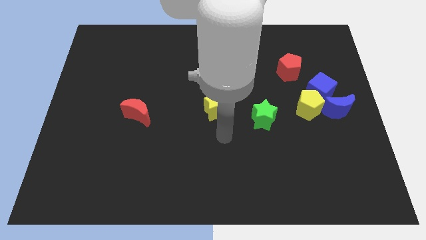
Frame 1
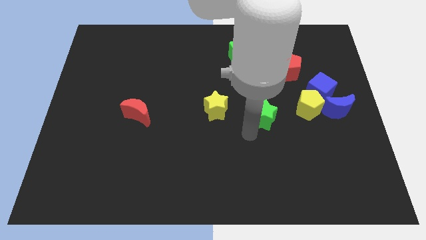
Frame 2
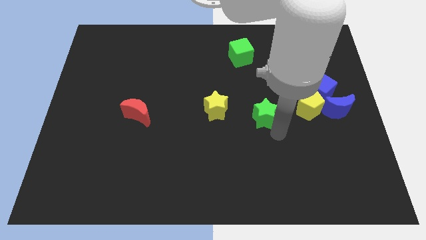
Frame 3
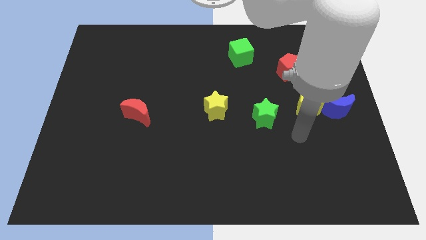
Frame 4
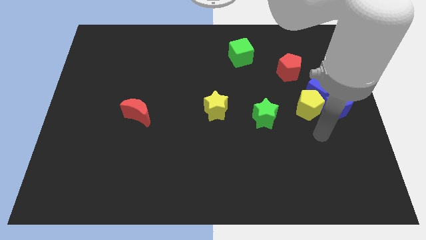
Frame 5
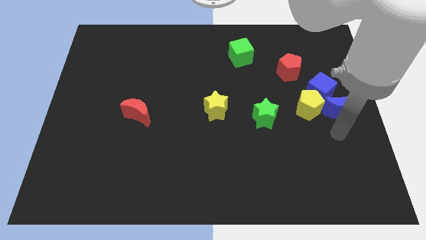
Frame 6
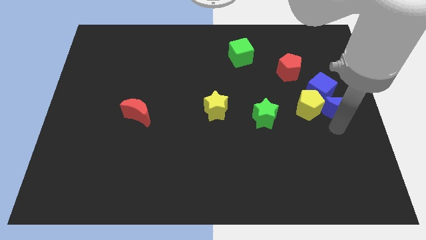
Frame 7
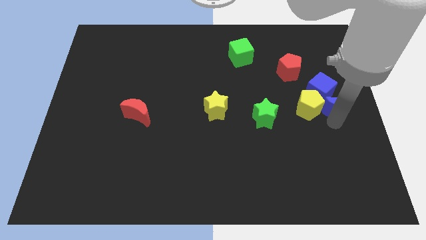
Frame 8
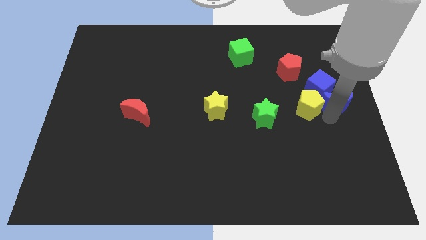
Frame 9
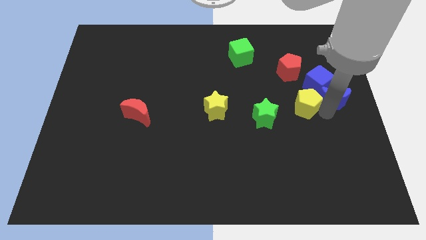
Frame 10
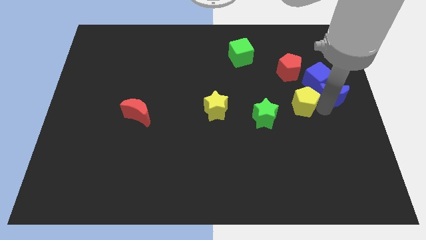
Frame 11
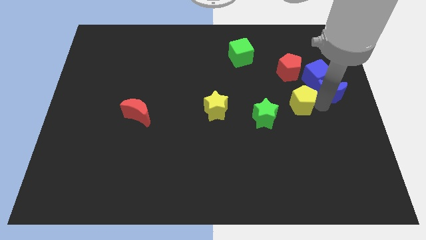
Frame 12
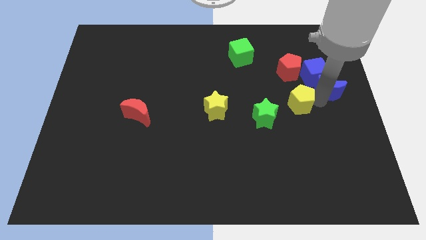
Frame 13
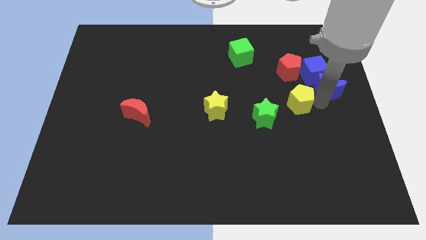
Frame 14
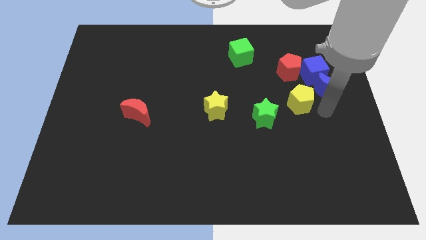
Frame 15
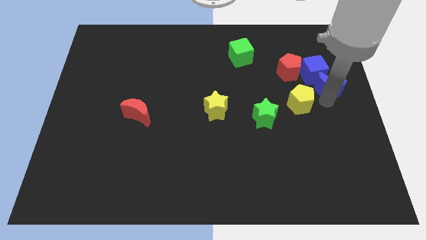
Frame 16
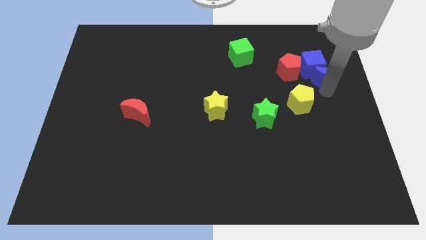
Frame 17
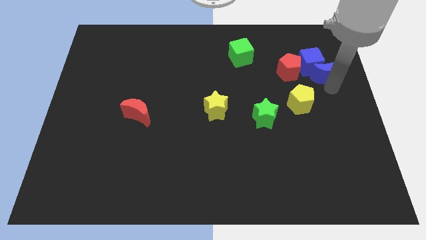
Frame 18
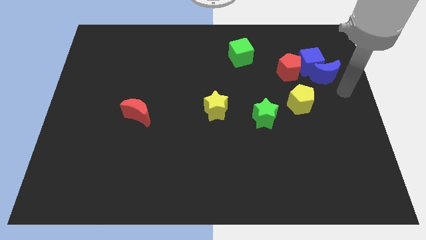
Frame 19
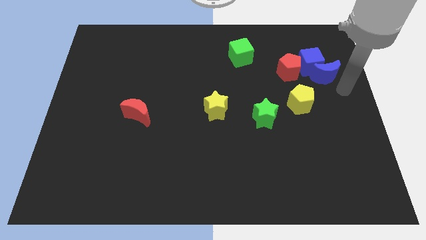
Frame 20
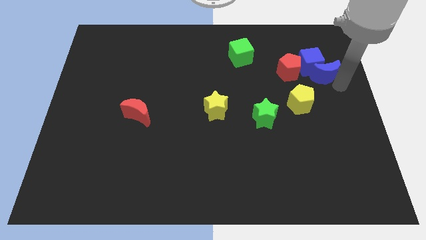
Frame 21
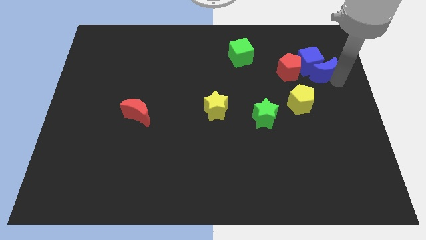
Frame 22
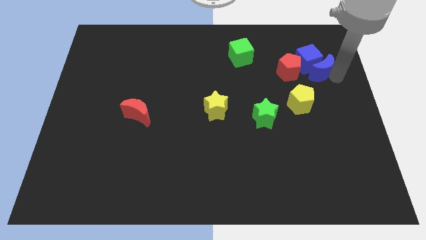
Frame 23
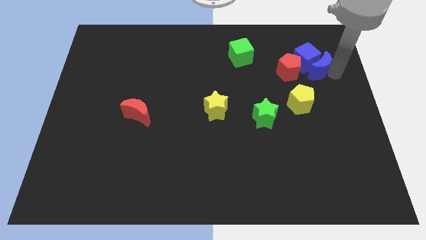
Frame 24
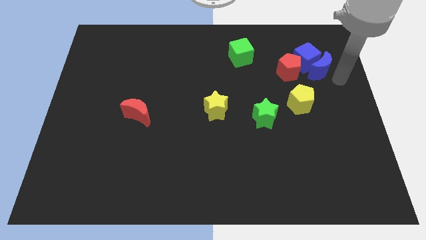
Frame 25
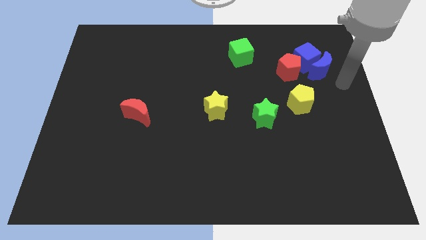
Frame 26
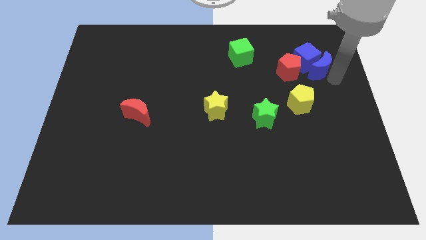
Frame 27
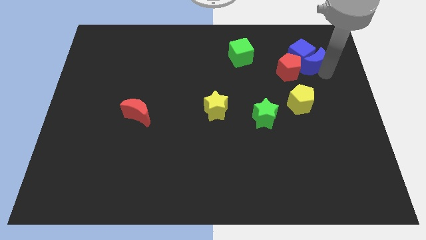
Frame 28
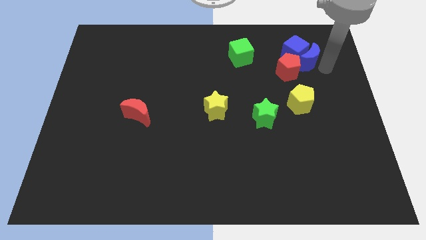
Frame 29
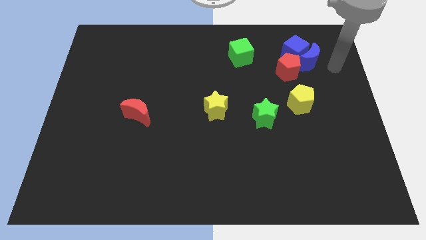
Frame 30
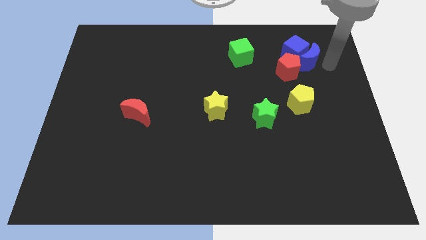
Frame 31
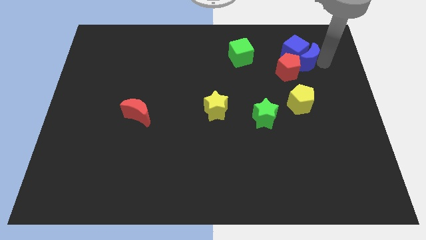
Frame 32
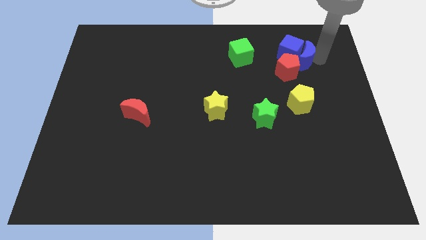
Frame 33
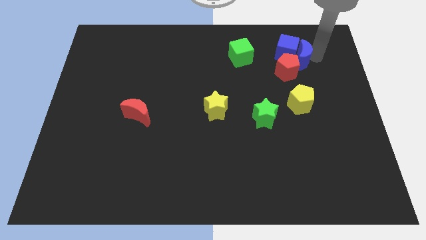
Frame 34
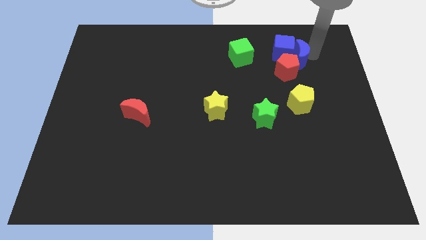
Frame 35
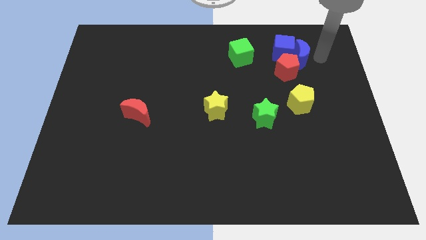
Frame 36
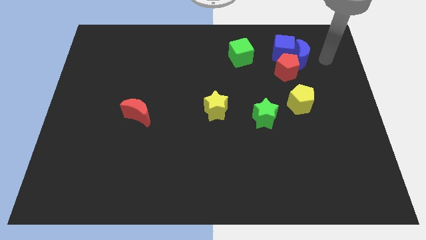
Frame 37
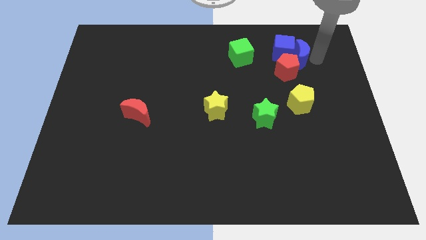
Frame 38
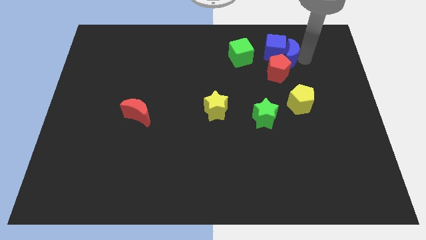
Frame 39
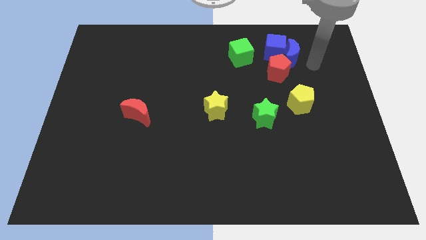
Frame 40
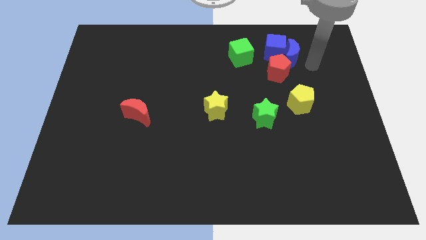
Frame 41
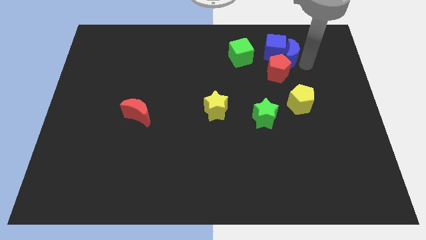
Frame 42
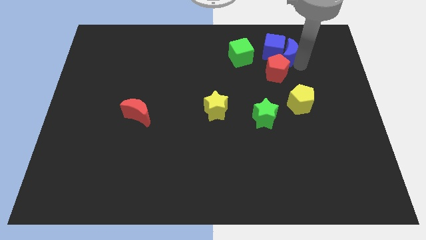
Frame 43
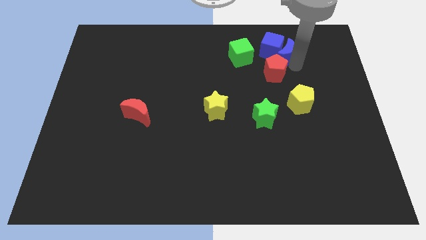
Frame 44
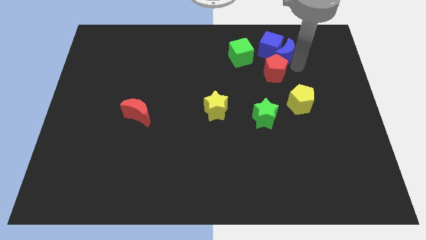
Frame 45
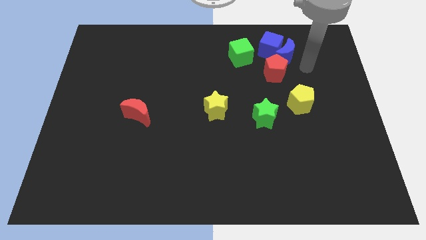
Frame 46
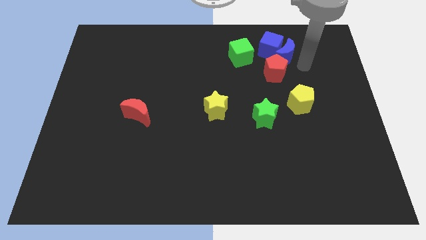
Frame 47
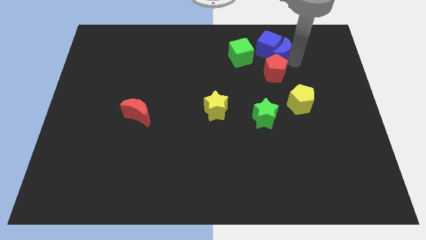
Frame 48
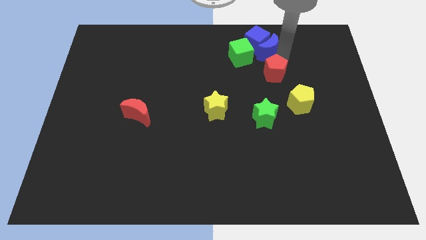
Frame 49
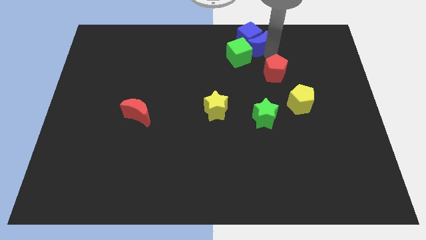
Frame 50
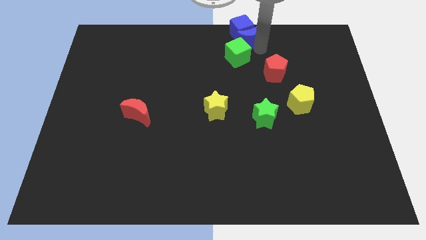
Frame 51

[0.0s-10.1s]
push the blue moon to the towards your base

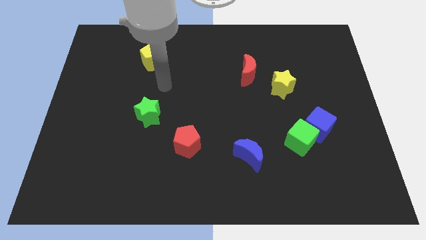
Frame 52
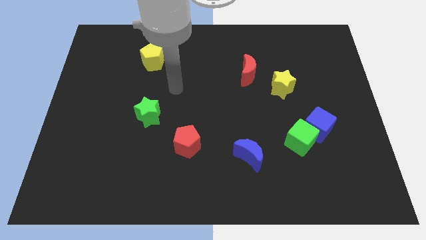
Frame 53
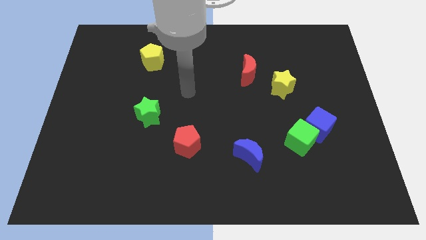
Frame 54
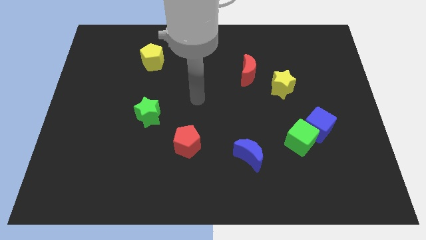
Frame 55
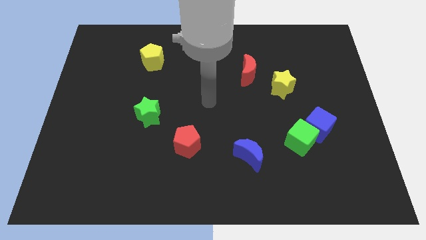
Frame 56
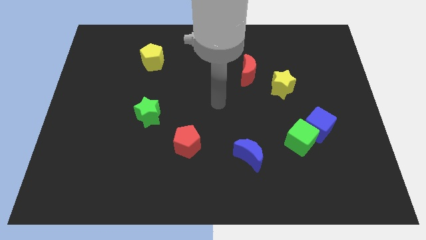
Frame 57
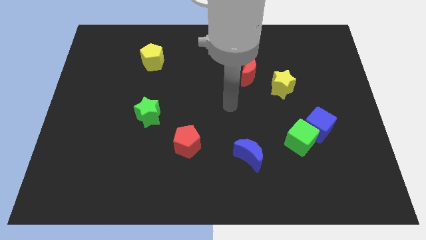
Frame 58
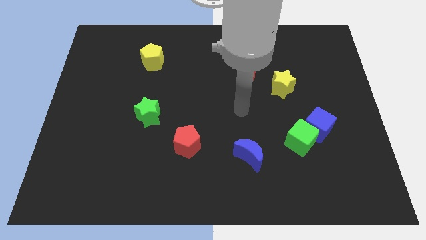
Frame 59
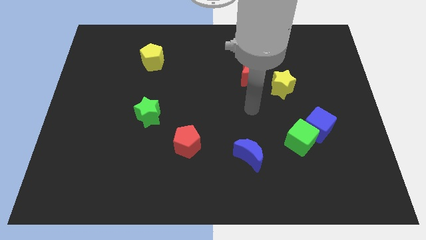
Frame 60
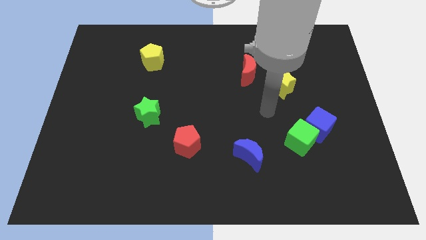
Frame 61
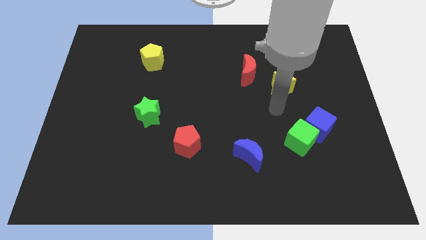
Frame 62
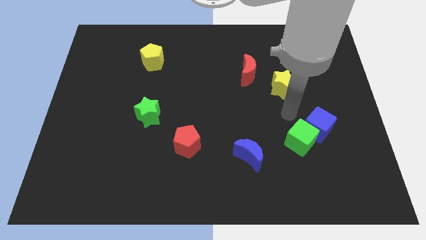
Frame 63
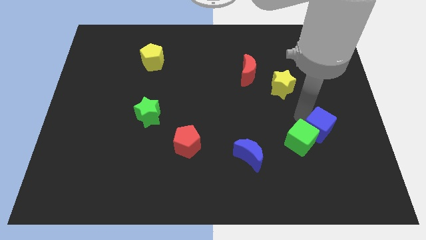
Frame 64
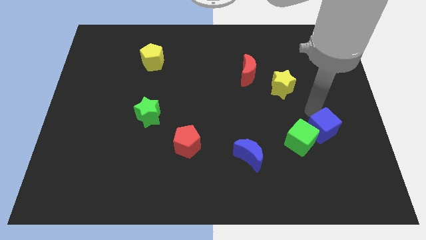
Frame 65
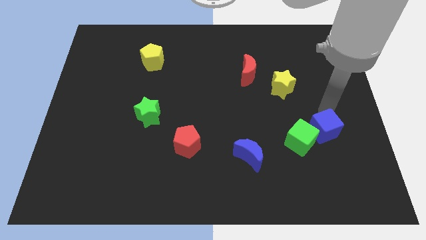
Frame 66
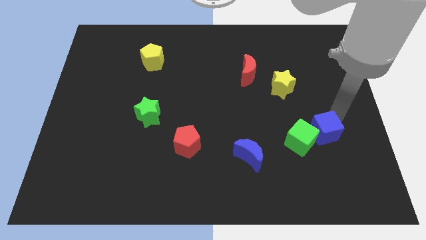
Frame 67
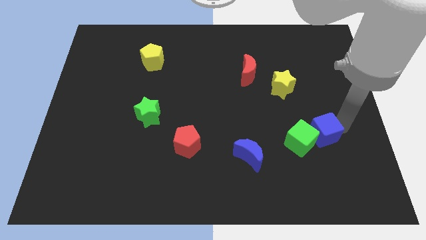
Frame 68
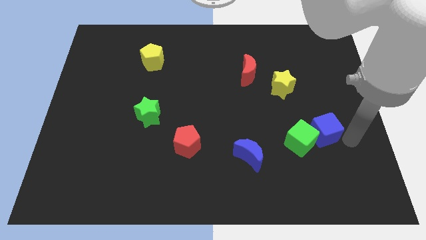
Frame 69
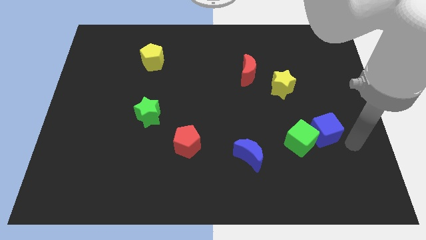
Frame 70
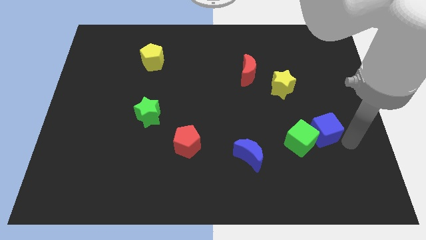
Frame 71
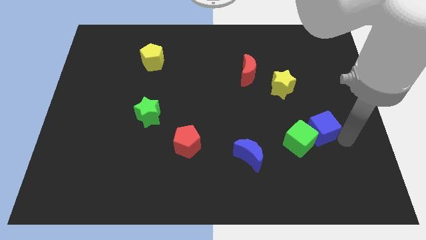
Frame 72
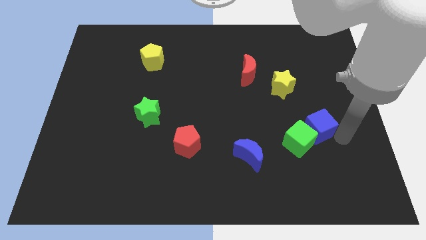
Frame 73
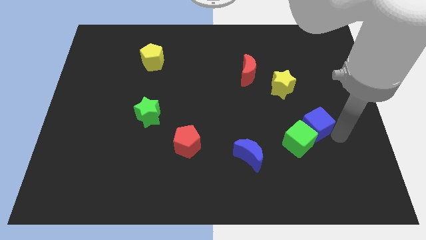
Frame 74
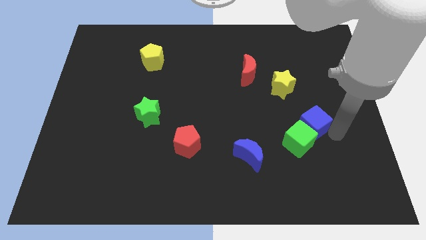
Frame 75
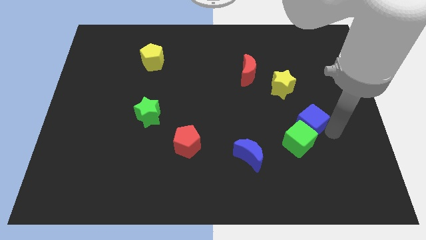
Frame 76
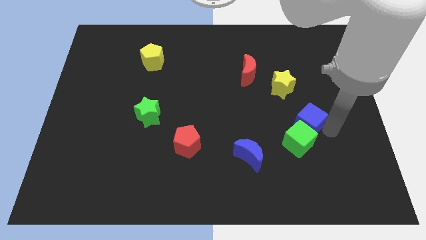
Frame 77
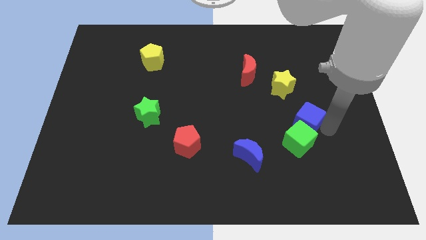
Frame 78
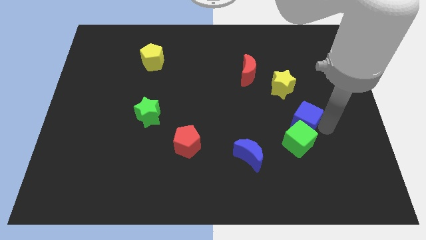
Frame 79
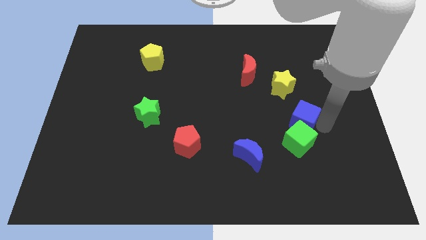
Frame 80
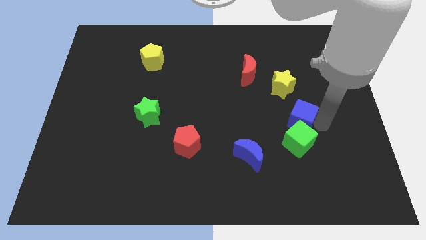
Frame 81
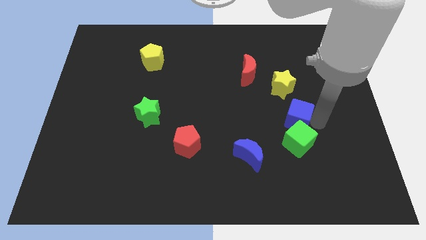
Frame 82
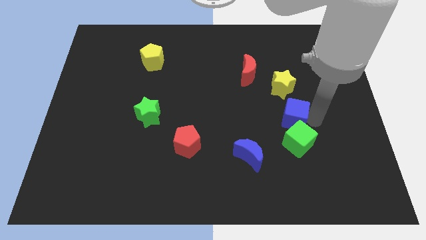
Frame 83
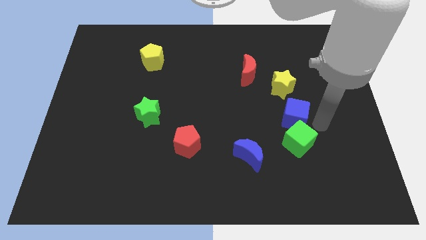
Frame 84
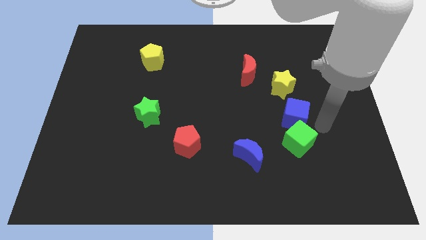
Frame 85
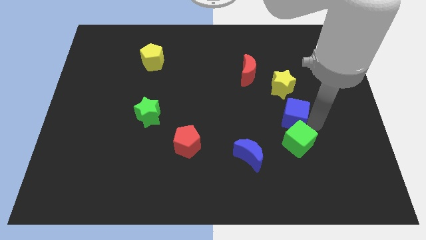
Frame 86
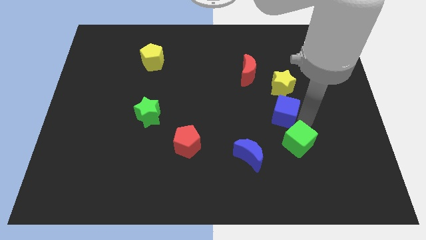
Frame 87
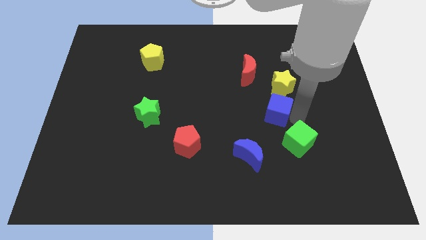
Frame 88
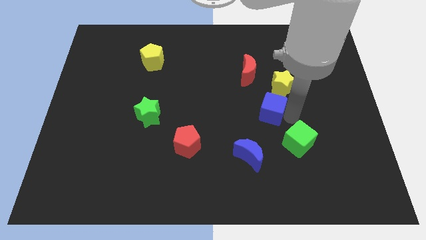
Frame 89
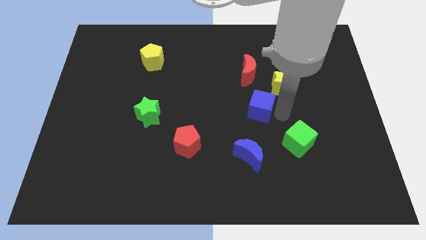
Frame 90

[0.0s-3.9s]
slide the blue cube to the center of the board
